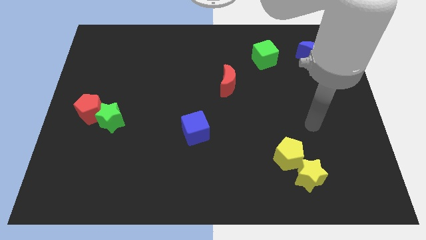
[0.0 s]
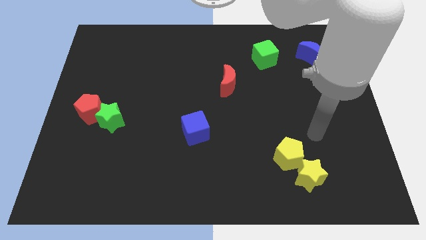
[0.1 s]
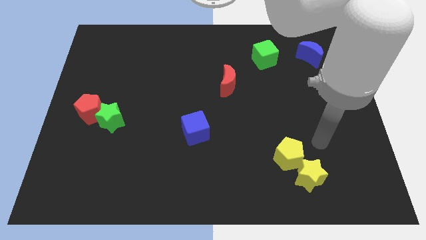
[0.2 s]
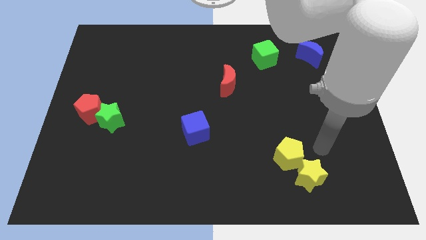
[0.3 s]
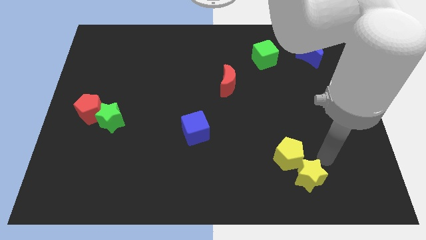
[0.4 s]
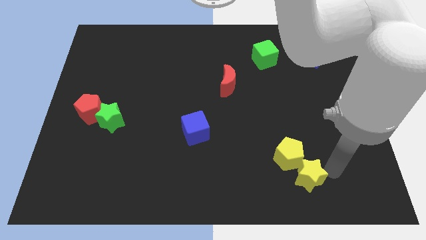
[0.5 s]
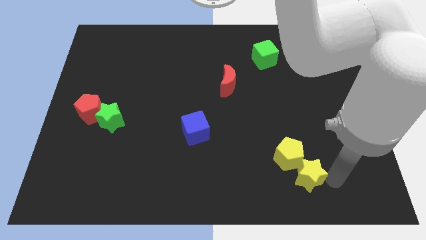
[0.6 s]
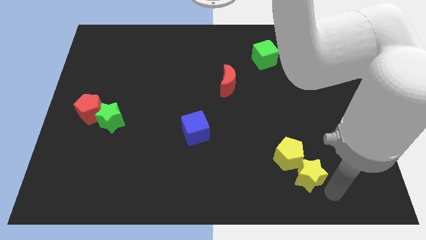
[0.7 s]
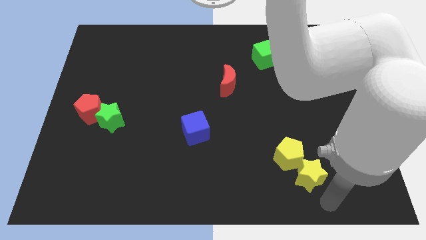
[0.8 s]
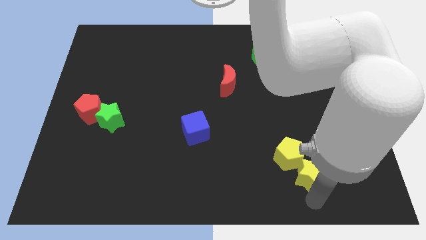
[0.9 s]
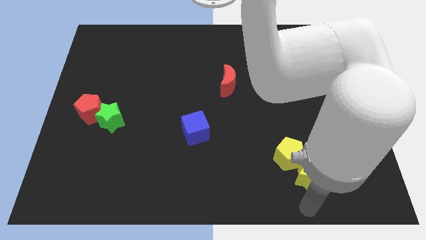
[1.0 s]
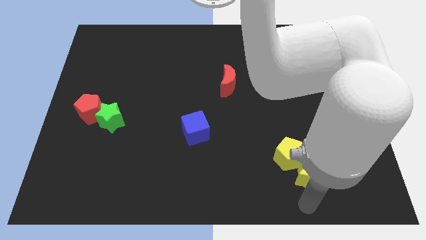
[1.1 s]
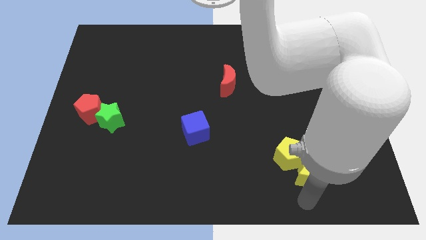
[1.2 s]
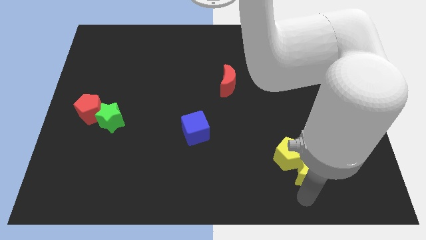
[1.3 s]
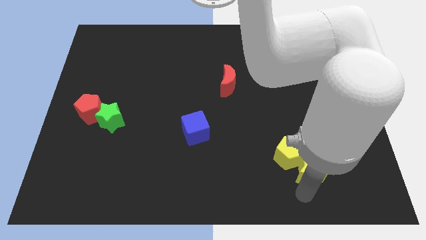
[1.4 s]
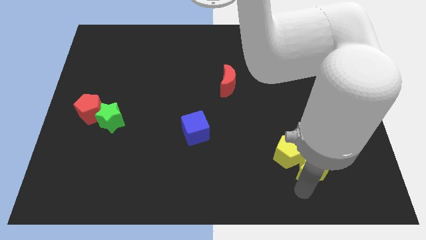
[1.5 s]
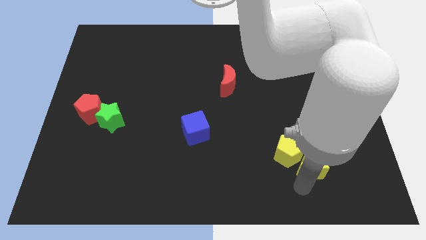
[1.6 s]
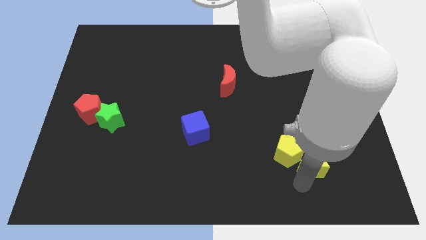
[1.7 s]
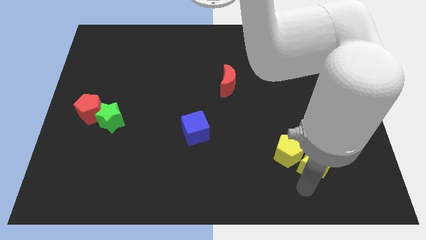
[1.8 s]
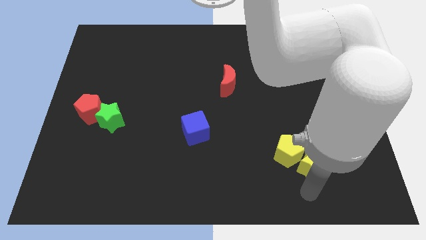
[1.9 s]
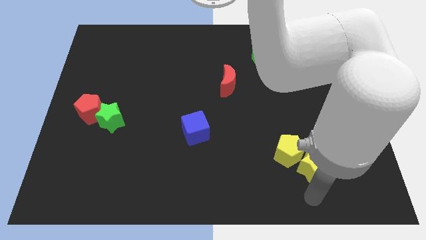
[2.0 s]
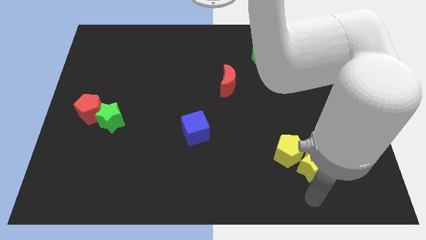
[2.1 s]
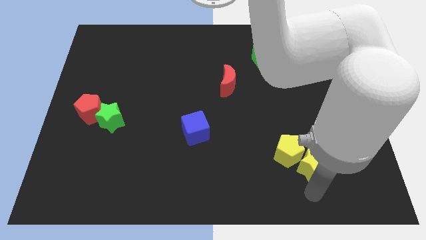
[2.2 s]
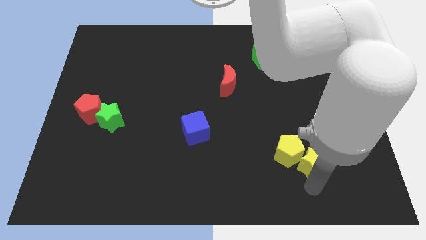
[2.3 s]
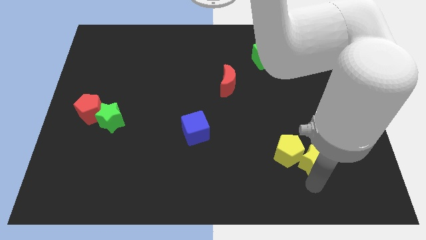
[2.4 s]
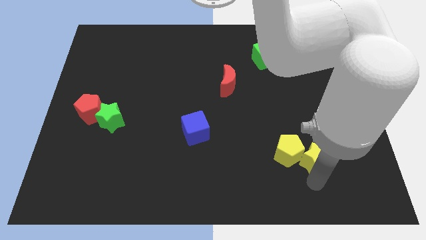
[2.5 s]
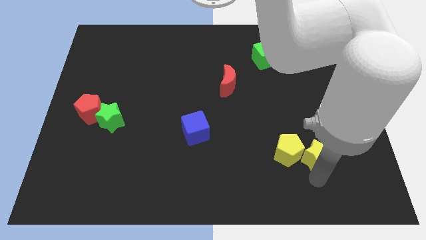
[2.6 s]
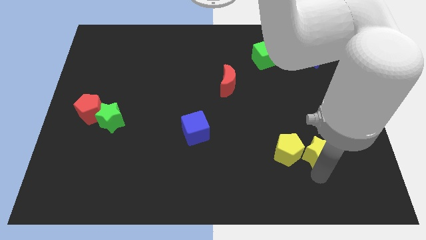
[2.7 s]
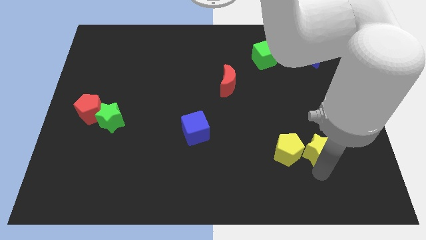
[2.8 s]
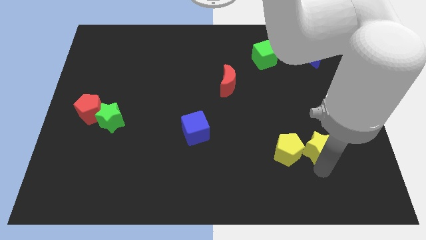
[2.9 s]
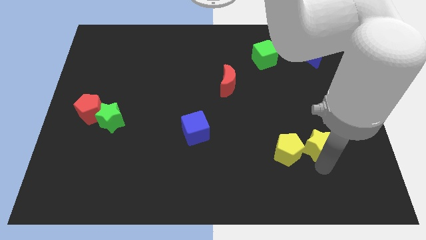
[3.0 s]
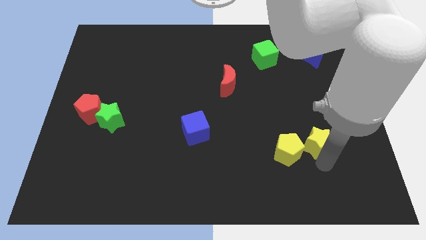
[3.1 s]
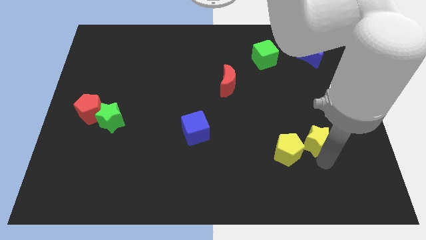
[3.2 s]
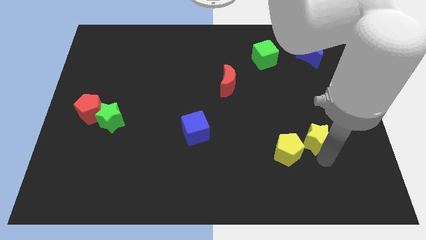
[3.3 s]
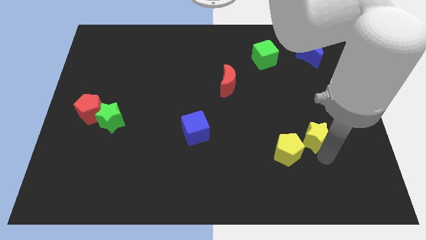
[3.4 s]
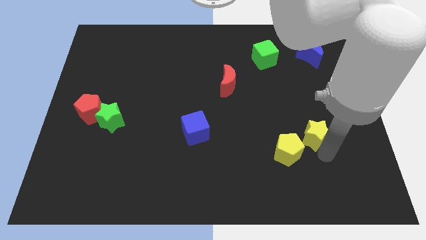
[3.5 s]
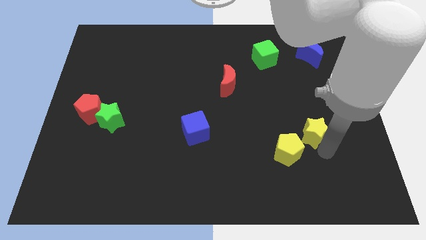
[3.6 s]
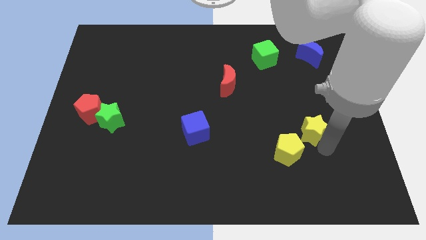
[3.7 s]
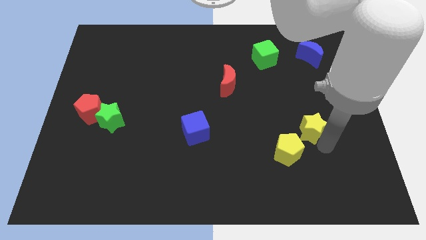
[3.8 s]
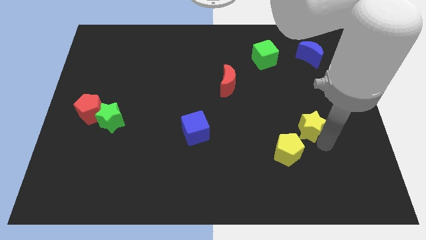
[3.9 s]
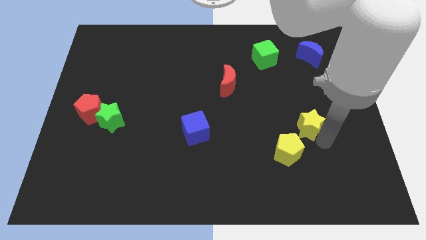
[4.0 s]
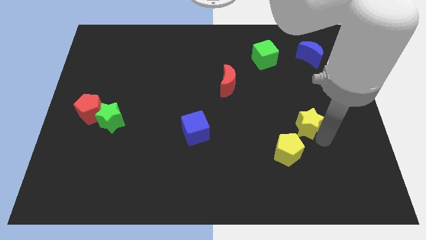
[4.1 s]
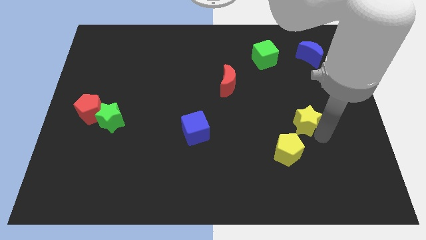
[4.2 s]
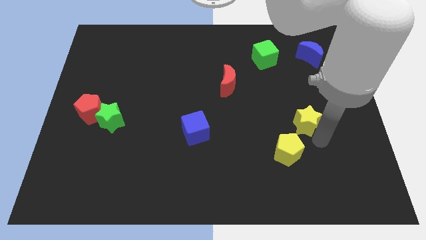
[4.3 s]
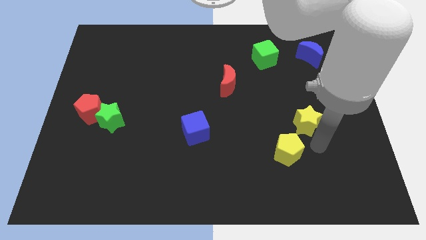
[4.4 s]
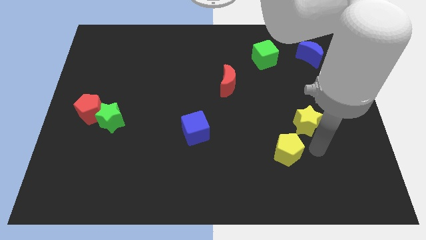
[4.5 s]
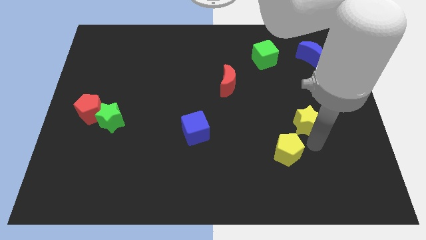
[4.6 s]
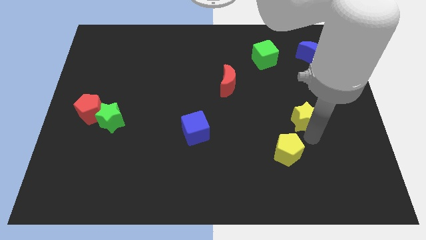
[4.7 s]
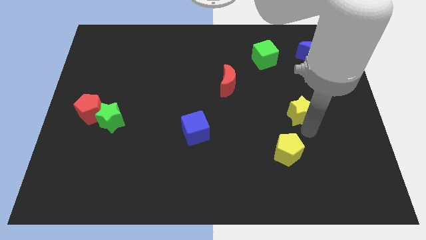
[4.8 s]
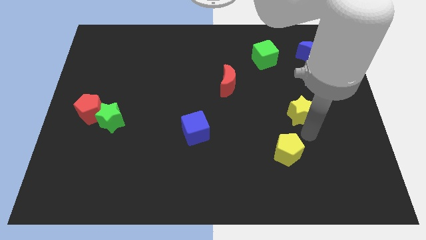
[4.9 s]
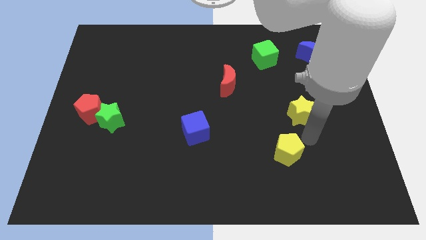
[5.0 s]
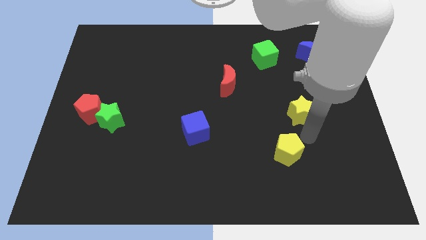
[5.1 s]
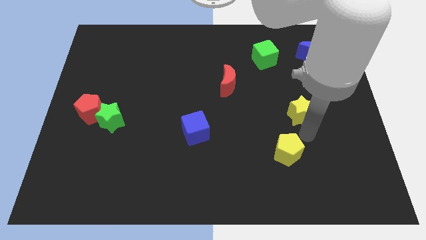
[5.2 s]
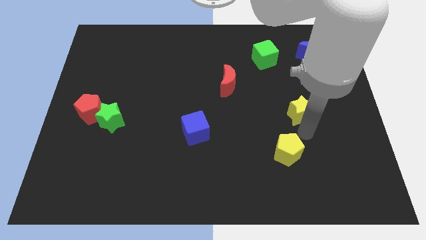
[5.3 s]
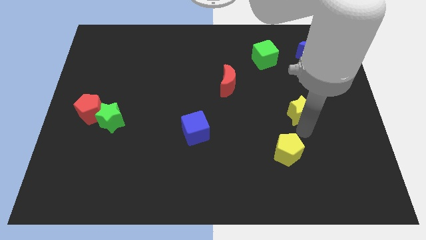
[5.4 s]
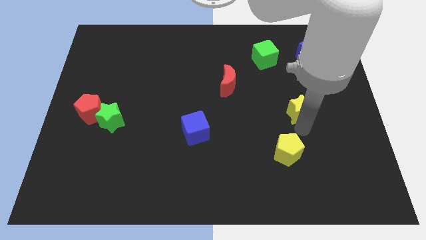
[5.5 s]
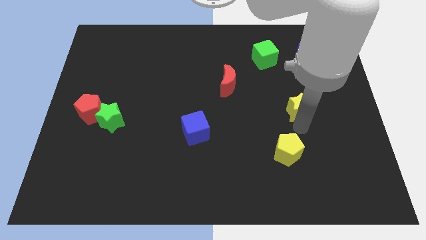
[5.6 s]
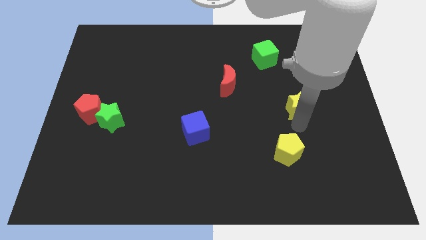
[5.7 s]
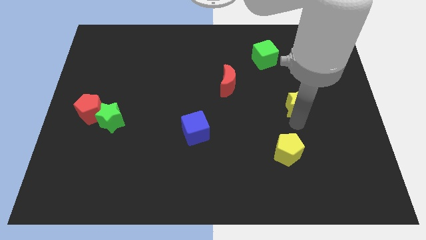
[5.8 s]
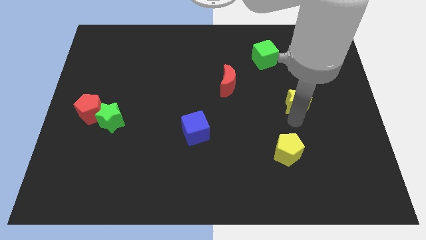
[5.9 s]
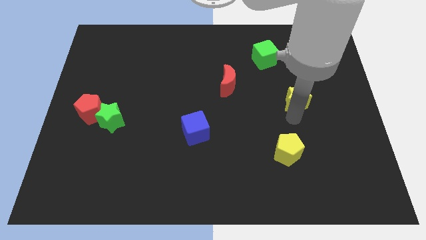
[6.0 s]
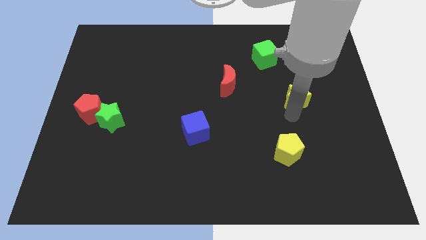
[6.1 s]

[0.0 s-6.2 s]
move the yellow star up

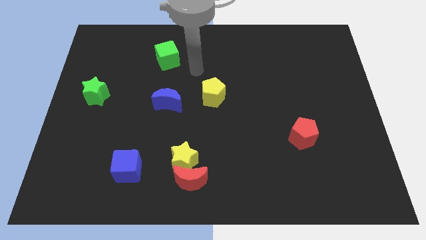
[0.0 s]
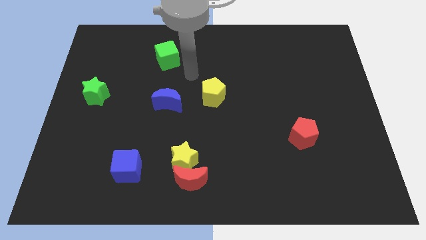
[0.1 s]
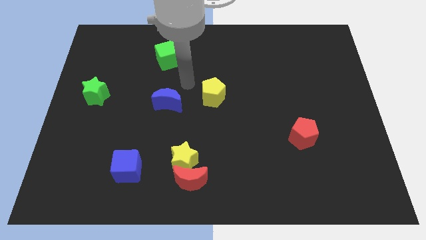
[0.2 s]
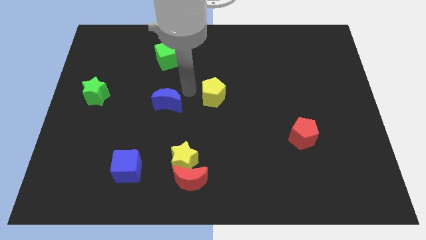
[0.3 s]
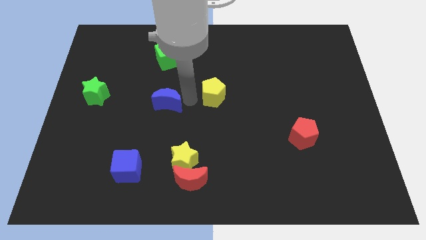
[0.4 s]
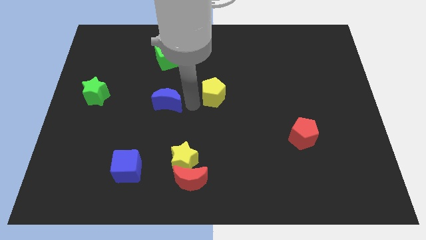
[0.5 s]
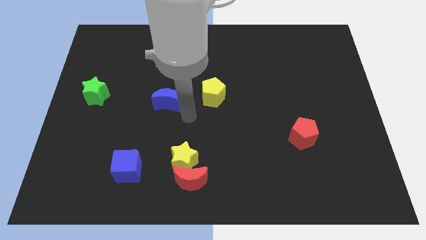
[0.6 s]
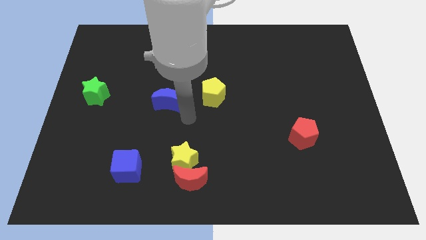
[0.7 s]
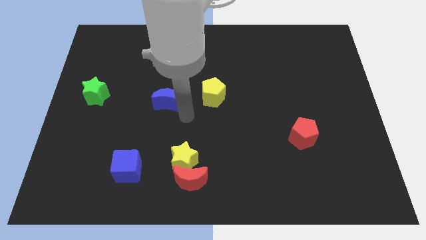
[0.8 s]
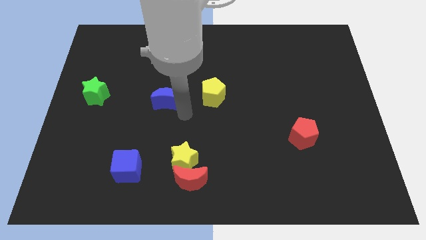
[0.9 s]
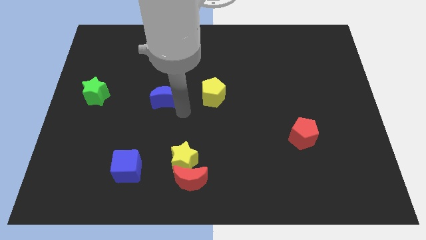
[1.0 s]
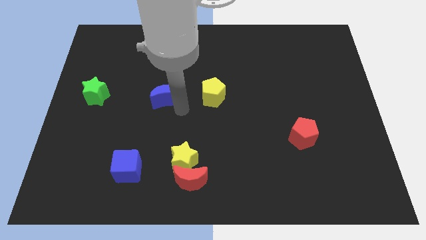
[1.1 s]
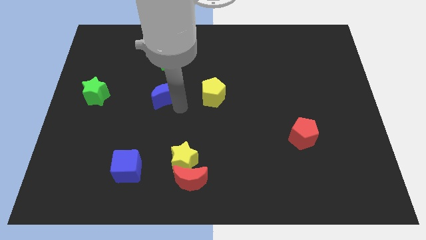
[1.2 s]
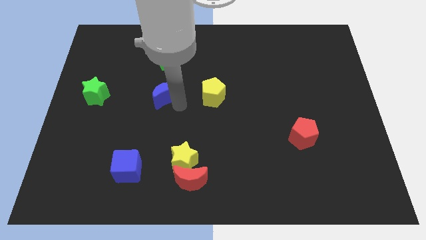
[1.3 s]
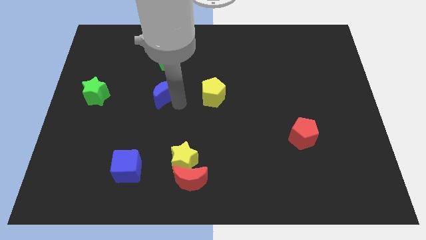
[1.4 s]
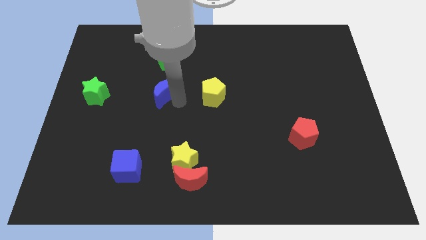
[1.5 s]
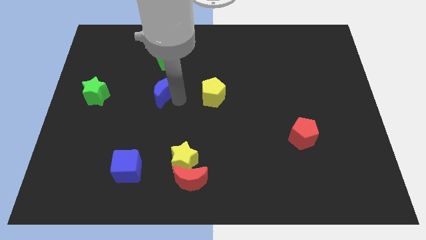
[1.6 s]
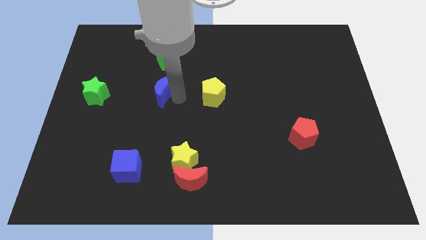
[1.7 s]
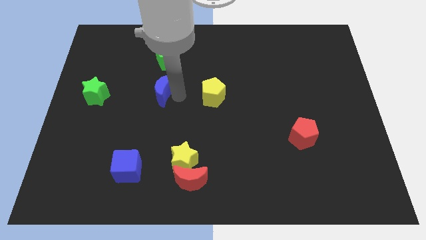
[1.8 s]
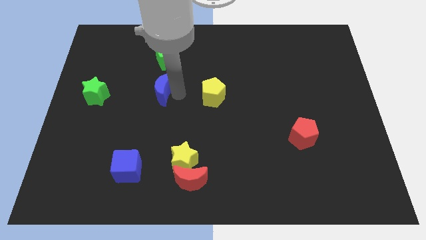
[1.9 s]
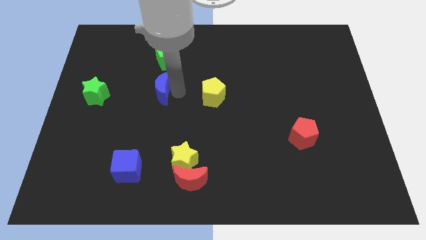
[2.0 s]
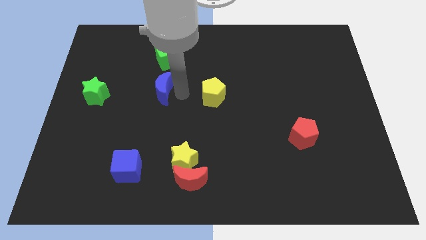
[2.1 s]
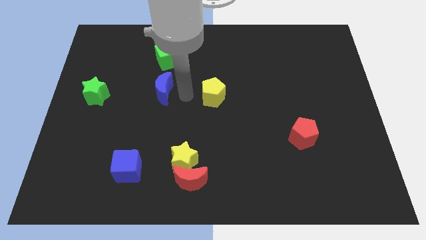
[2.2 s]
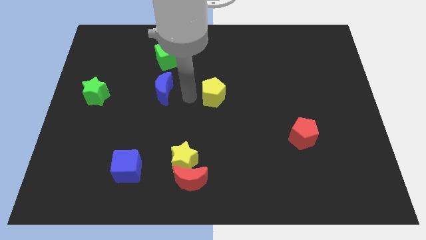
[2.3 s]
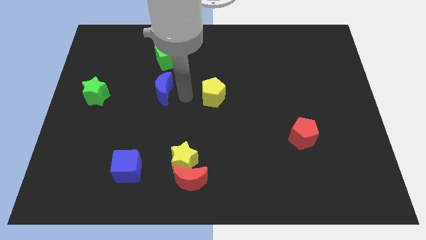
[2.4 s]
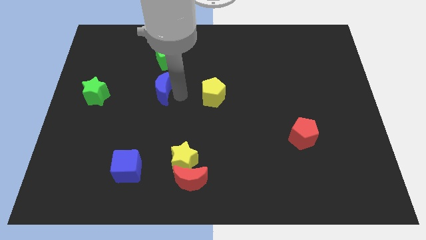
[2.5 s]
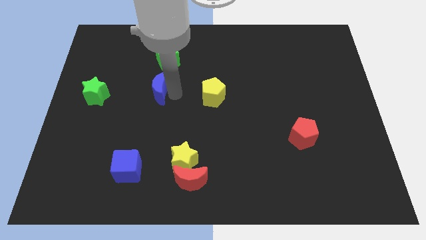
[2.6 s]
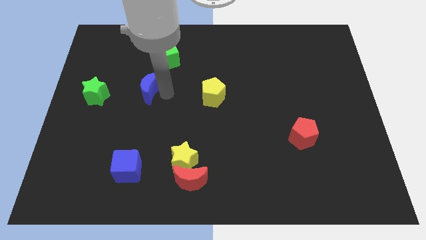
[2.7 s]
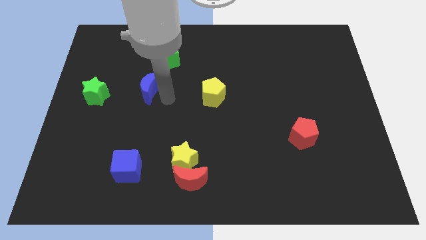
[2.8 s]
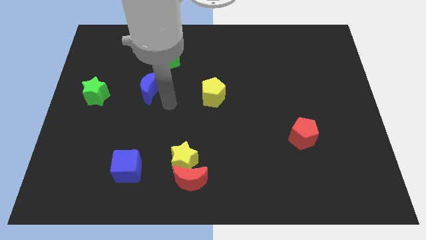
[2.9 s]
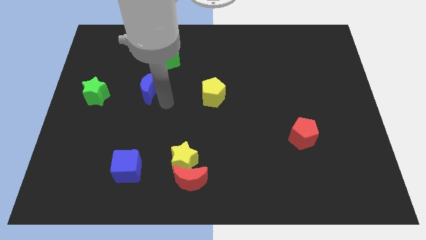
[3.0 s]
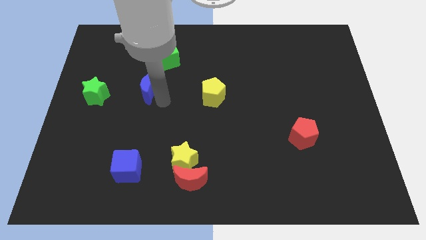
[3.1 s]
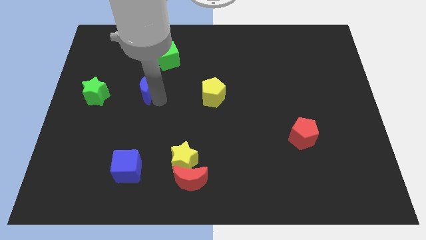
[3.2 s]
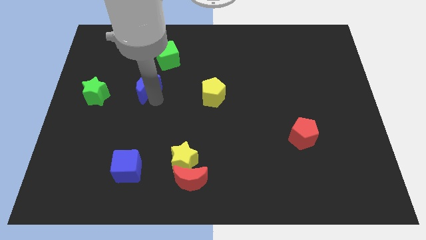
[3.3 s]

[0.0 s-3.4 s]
move the blue moon slightly up and left diagonally
